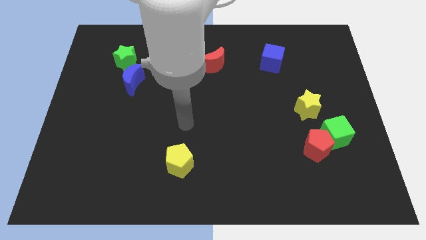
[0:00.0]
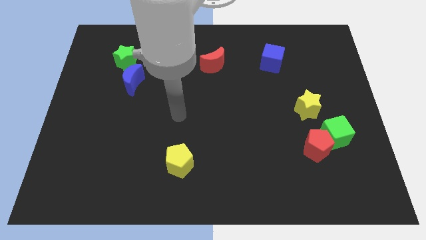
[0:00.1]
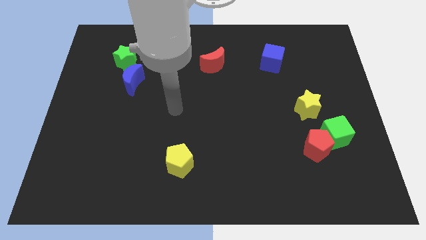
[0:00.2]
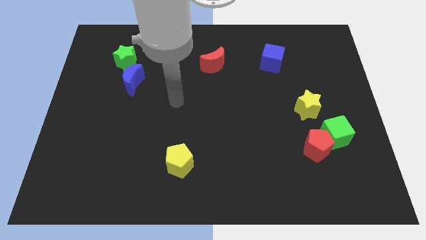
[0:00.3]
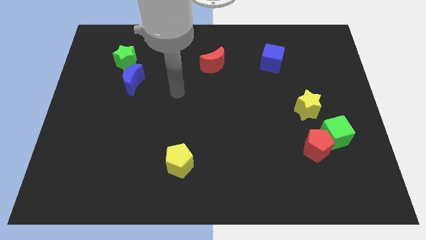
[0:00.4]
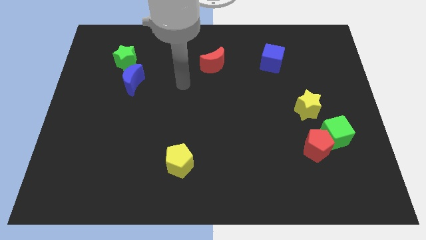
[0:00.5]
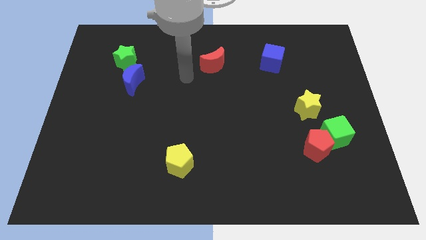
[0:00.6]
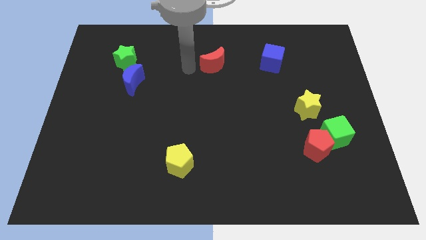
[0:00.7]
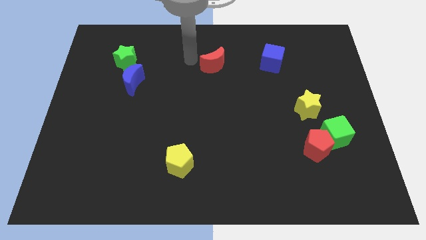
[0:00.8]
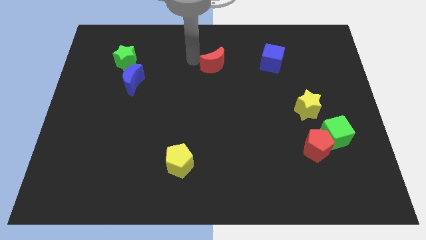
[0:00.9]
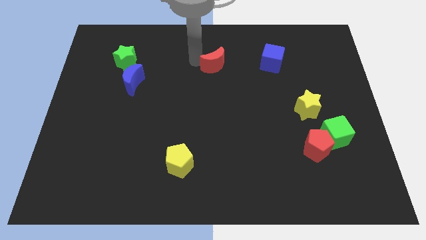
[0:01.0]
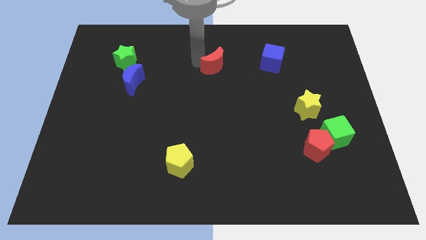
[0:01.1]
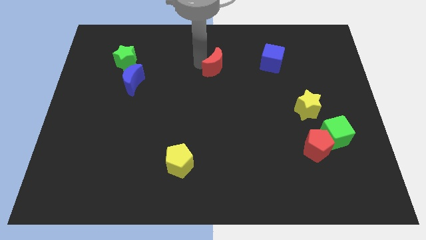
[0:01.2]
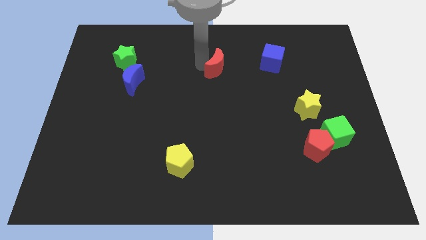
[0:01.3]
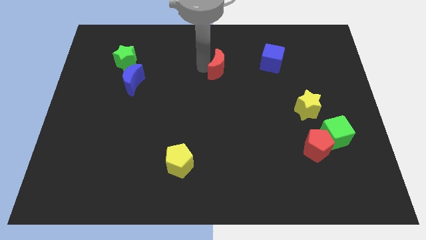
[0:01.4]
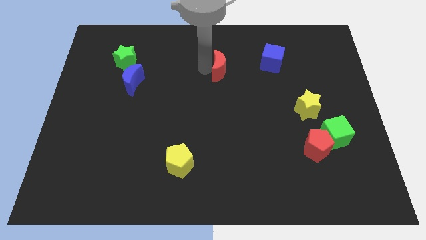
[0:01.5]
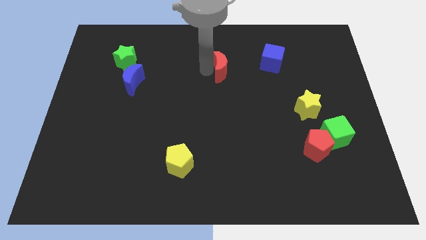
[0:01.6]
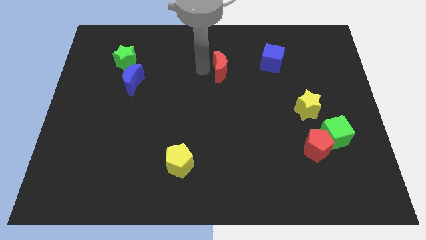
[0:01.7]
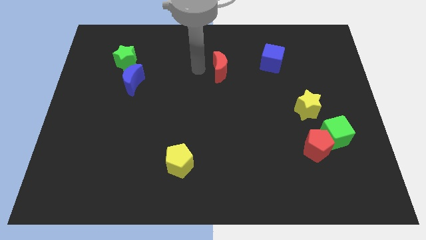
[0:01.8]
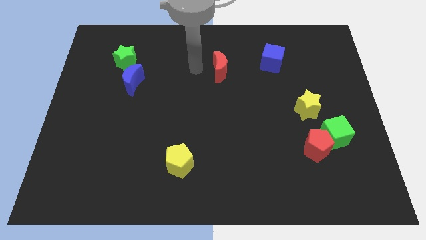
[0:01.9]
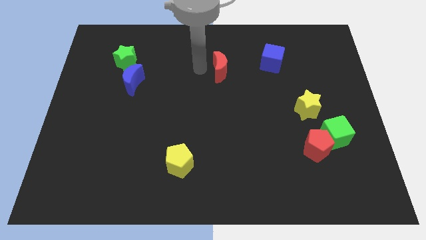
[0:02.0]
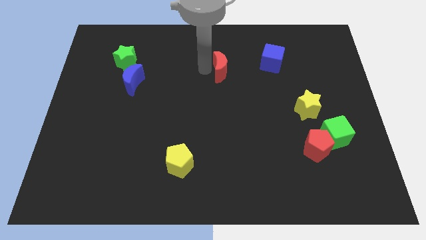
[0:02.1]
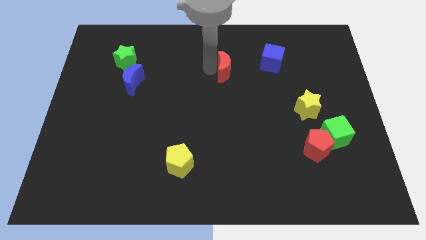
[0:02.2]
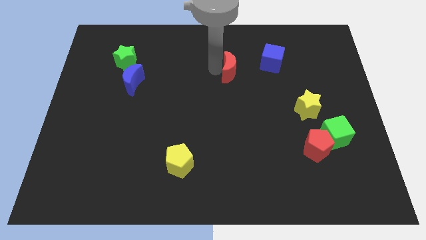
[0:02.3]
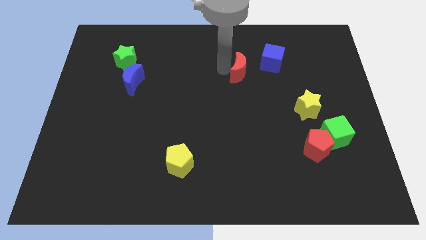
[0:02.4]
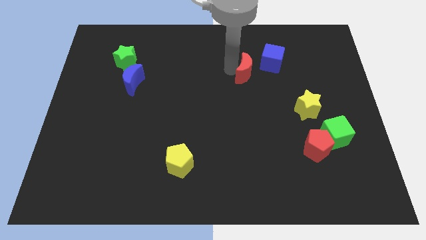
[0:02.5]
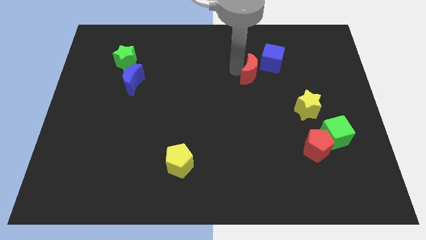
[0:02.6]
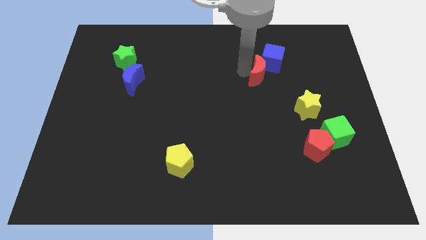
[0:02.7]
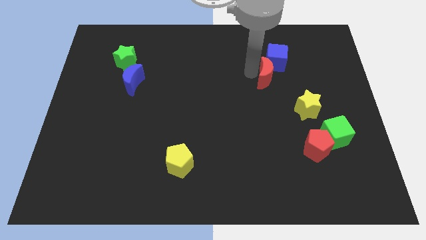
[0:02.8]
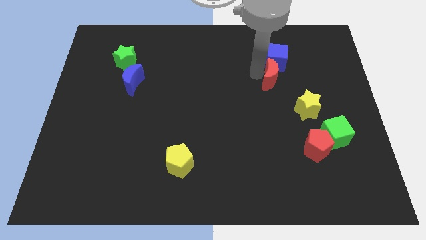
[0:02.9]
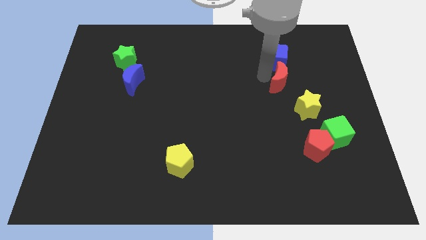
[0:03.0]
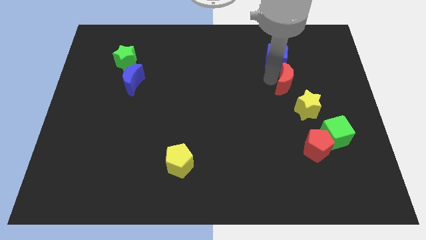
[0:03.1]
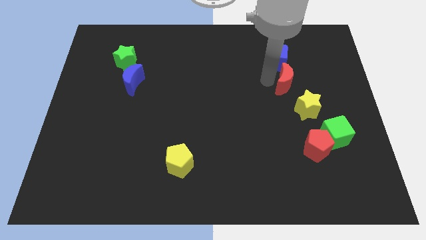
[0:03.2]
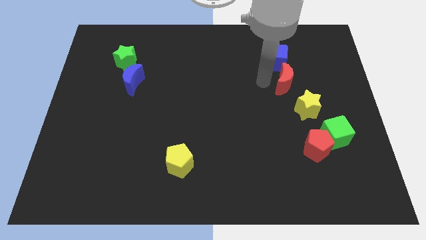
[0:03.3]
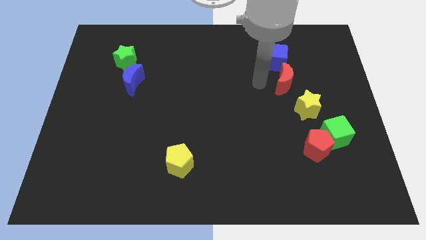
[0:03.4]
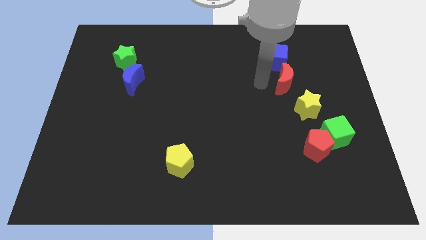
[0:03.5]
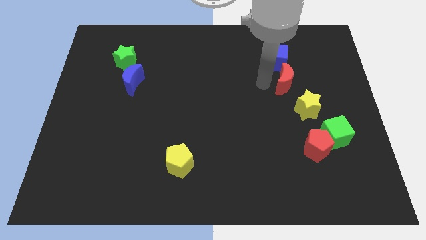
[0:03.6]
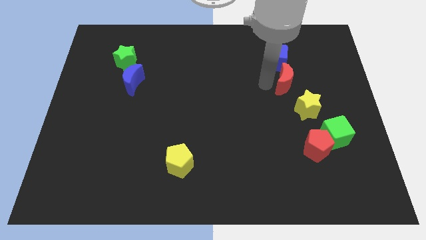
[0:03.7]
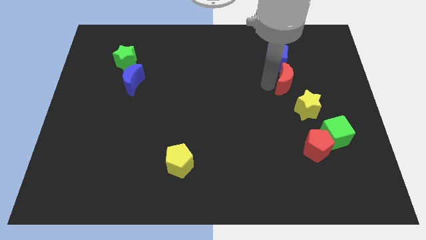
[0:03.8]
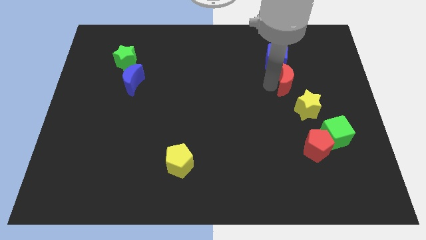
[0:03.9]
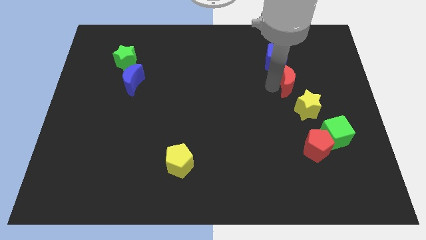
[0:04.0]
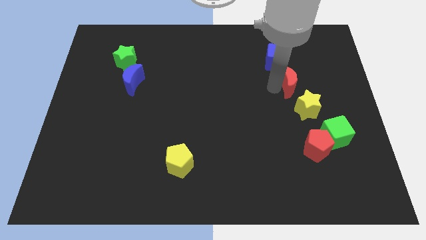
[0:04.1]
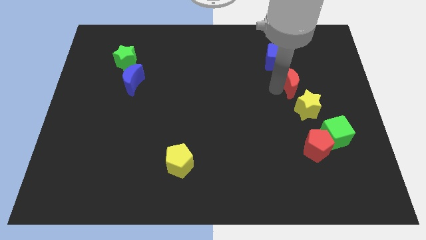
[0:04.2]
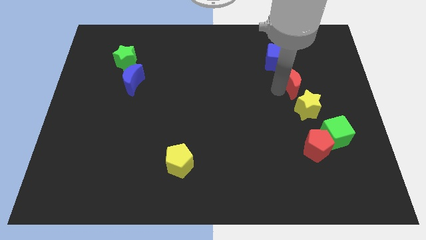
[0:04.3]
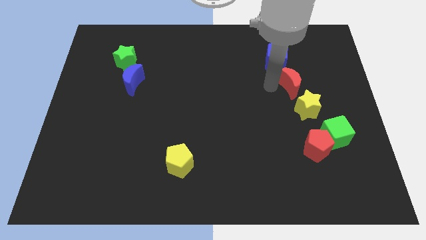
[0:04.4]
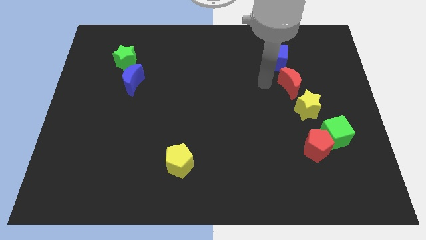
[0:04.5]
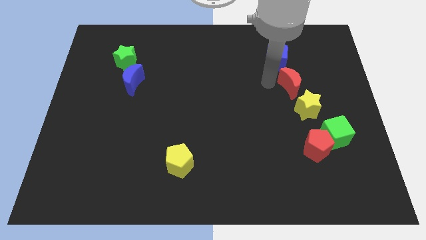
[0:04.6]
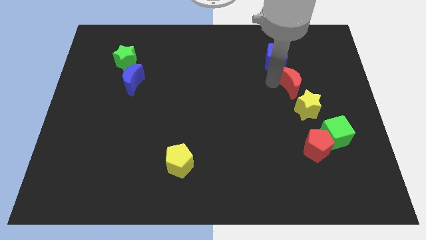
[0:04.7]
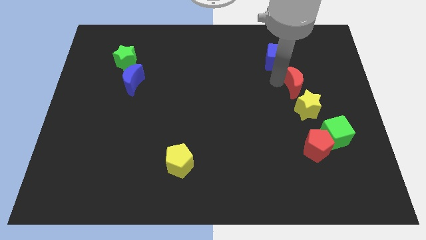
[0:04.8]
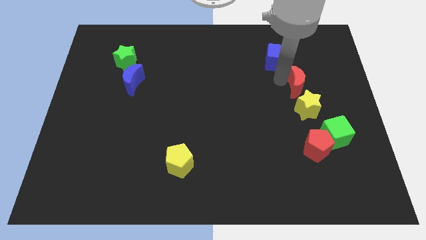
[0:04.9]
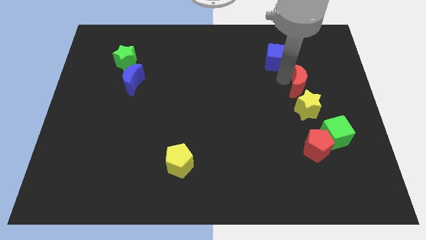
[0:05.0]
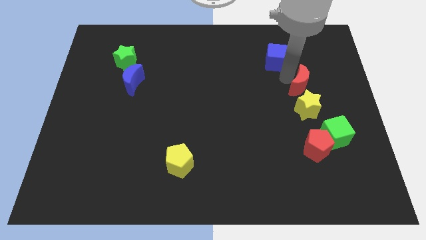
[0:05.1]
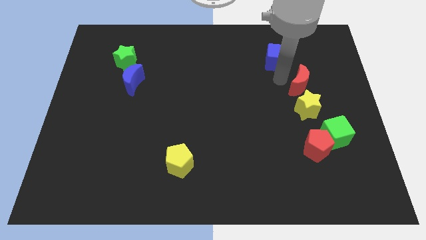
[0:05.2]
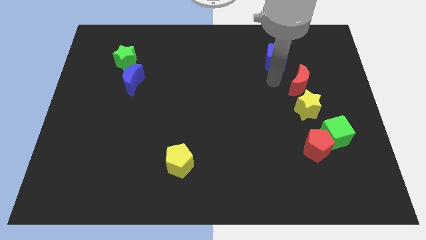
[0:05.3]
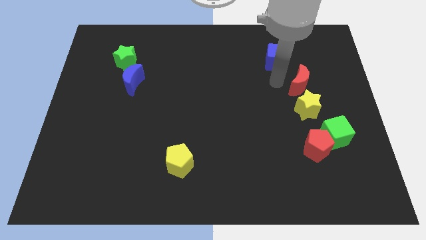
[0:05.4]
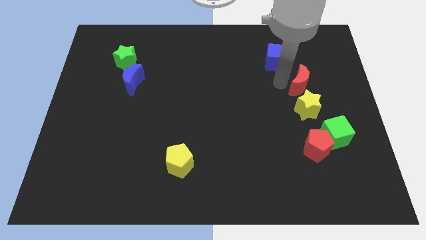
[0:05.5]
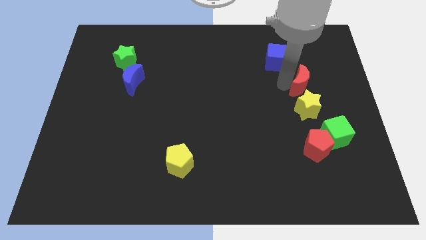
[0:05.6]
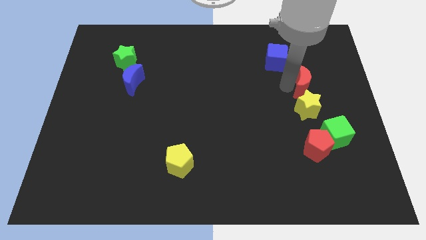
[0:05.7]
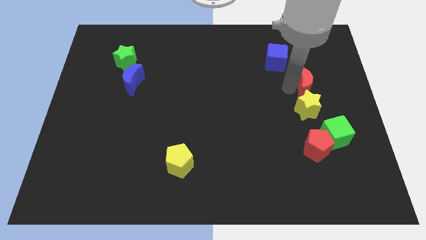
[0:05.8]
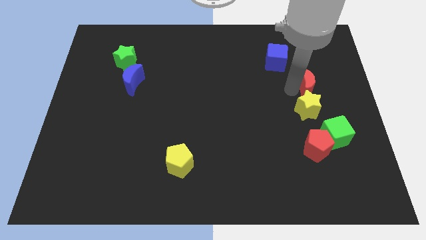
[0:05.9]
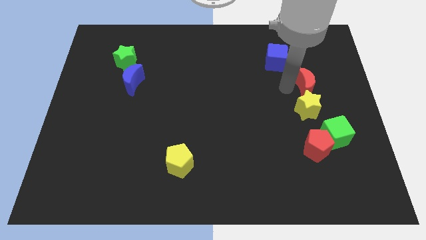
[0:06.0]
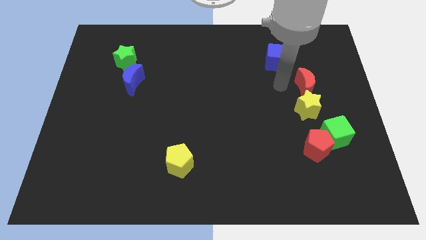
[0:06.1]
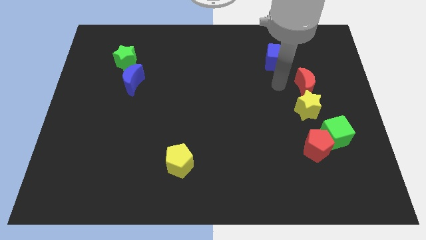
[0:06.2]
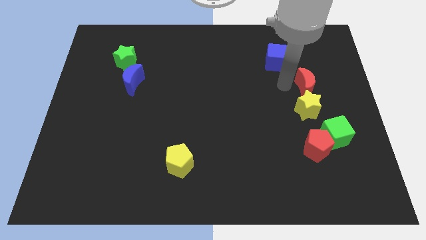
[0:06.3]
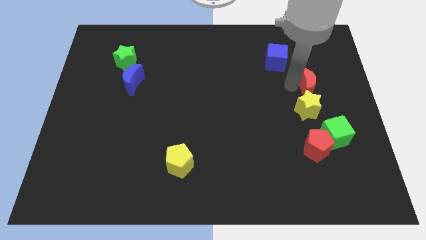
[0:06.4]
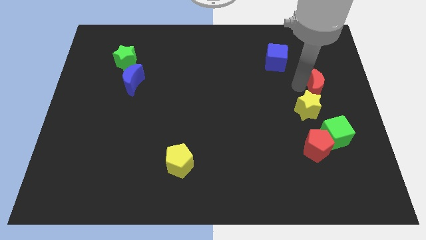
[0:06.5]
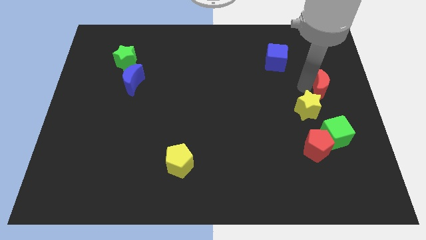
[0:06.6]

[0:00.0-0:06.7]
slide the red moon to the right side of the board
